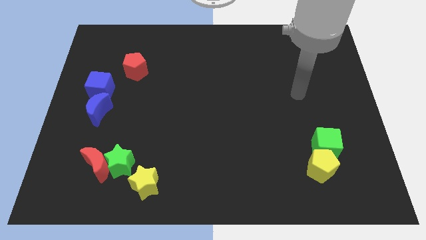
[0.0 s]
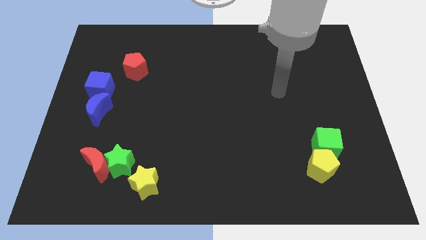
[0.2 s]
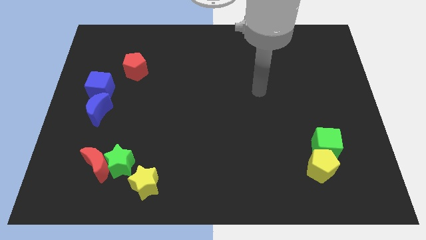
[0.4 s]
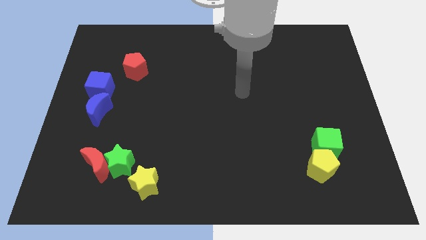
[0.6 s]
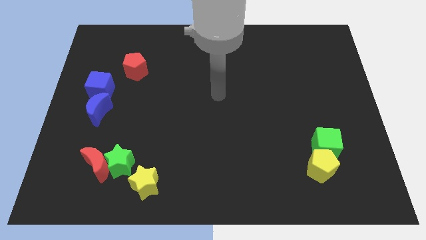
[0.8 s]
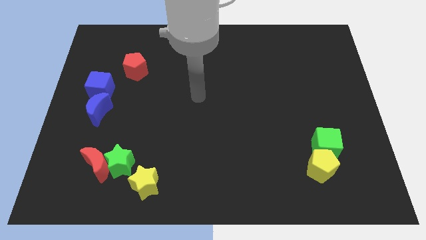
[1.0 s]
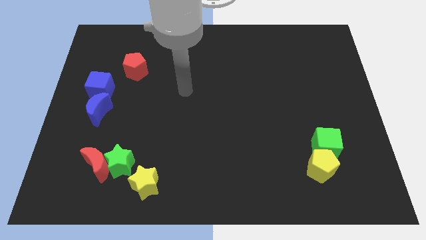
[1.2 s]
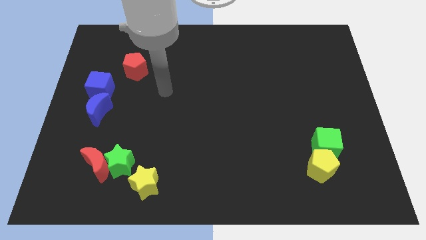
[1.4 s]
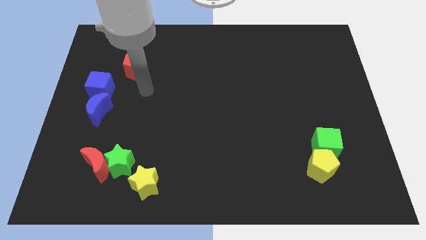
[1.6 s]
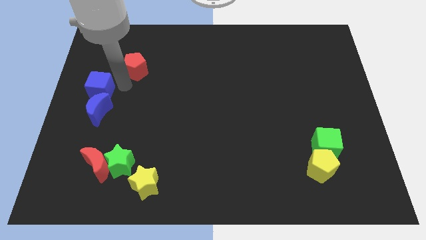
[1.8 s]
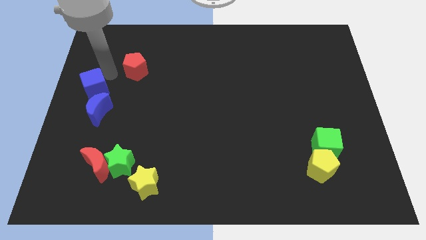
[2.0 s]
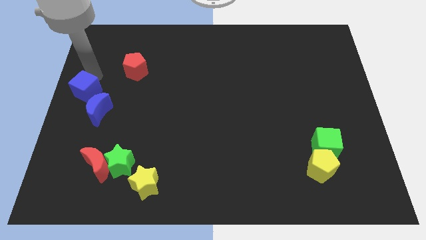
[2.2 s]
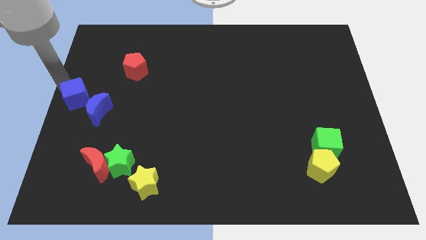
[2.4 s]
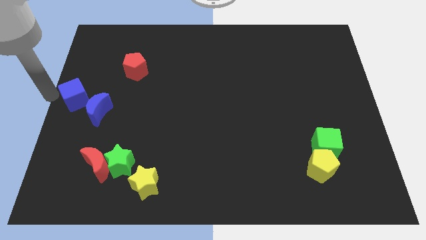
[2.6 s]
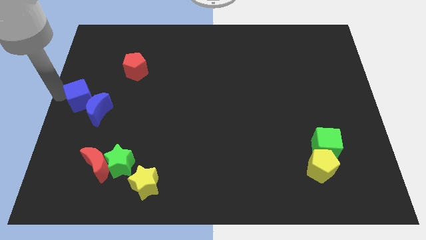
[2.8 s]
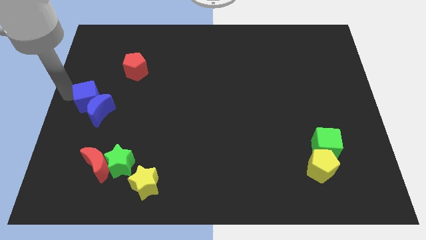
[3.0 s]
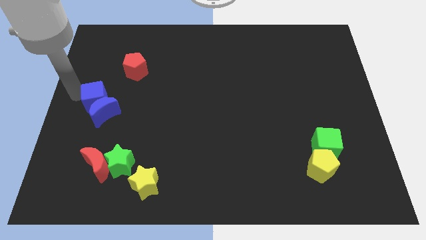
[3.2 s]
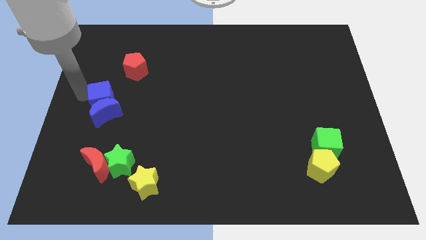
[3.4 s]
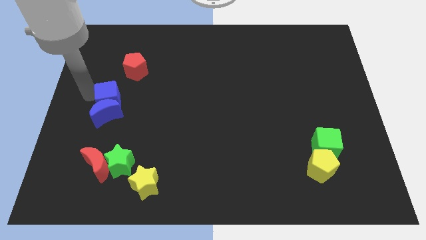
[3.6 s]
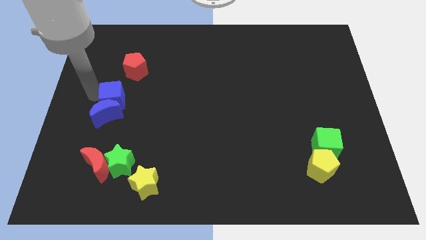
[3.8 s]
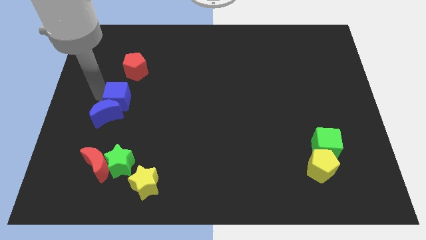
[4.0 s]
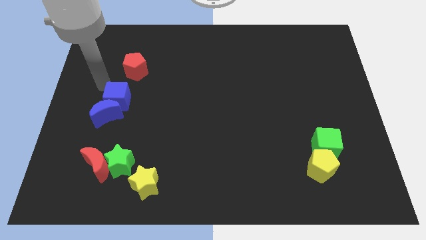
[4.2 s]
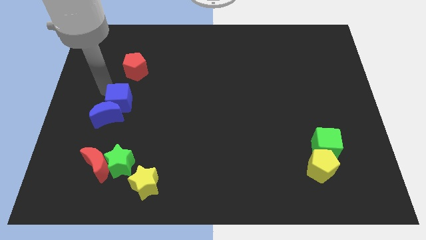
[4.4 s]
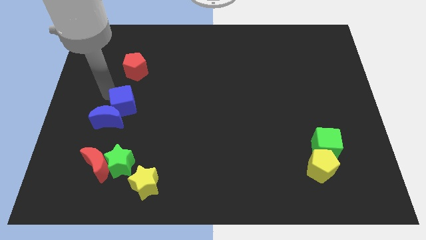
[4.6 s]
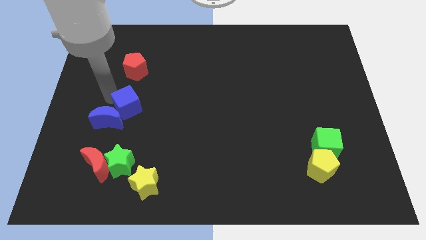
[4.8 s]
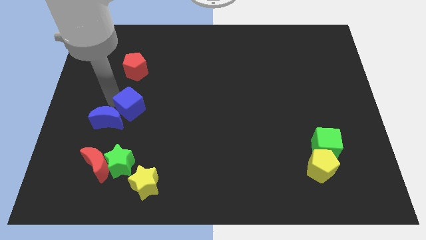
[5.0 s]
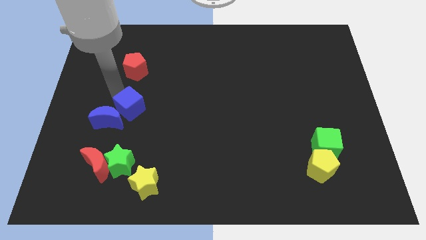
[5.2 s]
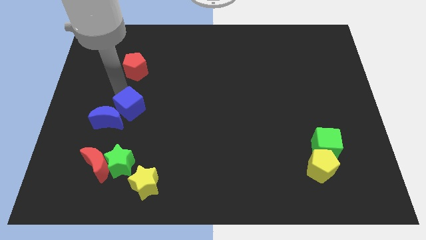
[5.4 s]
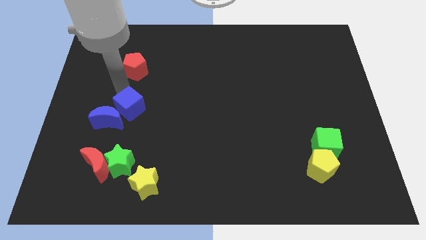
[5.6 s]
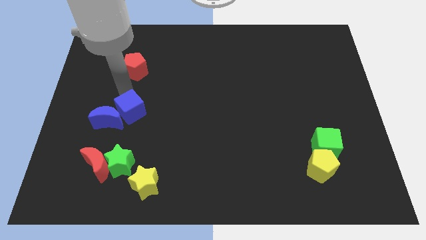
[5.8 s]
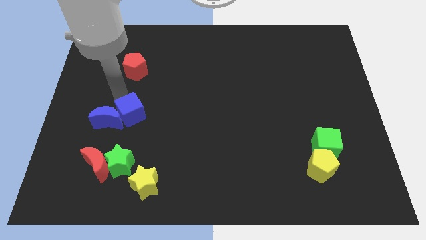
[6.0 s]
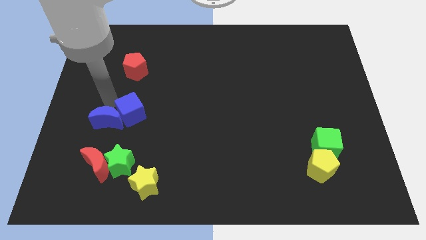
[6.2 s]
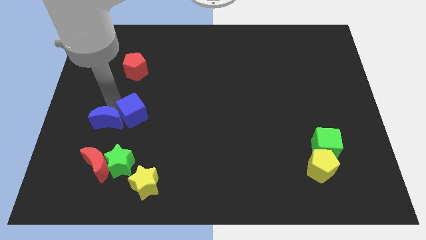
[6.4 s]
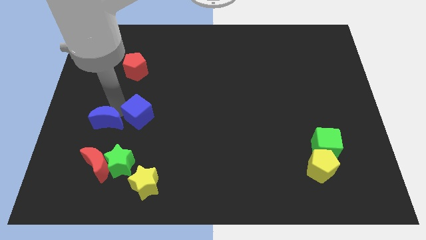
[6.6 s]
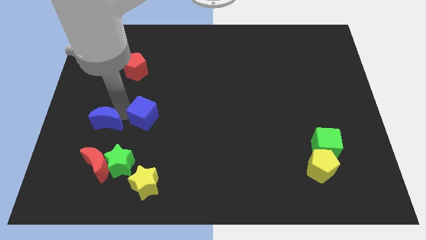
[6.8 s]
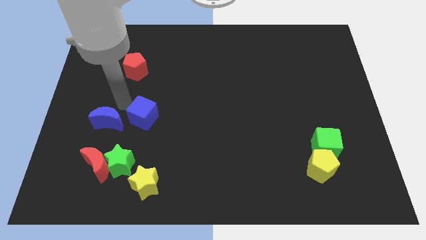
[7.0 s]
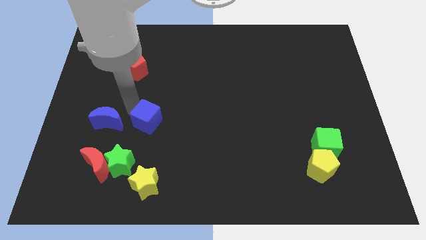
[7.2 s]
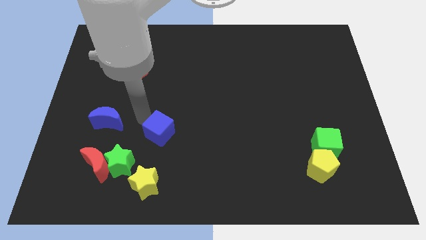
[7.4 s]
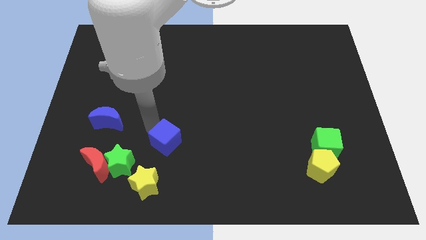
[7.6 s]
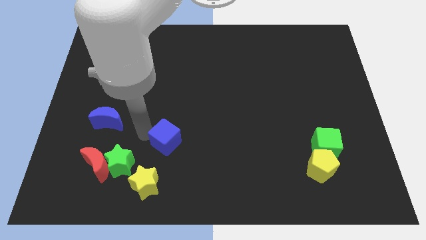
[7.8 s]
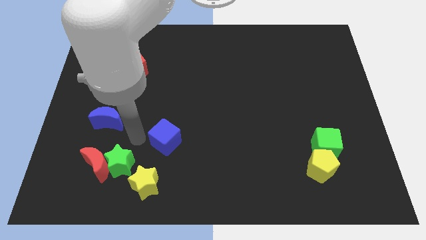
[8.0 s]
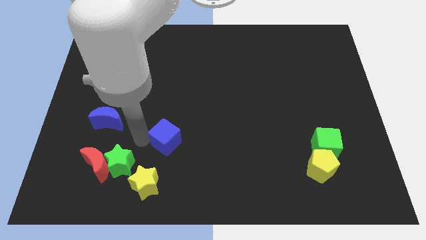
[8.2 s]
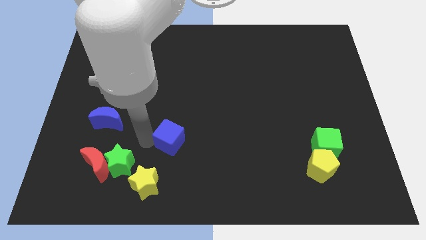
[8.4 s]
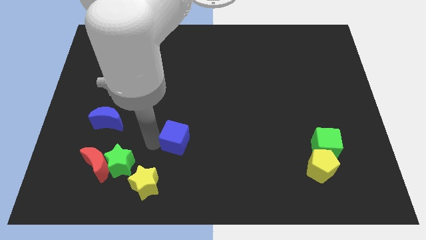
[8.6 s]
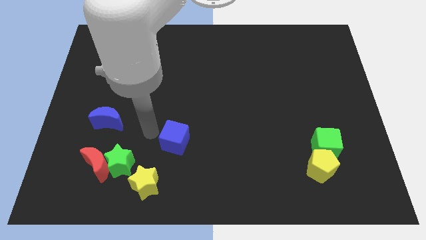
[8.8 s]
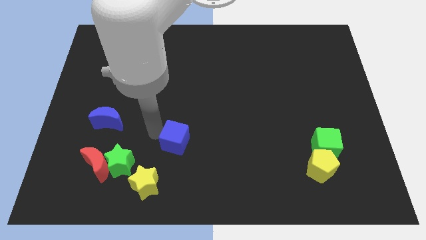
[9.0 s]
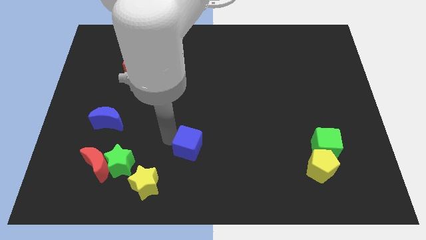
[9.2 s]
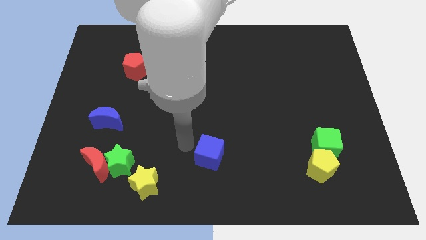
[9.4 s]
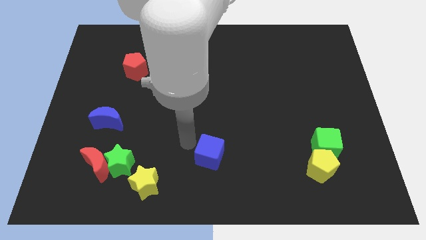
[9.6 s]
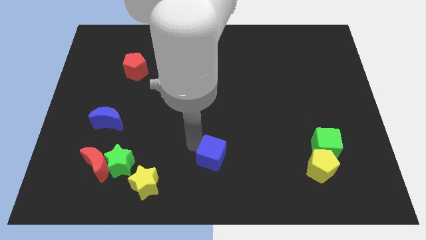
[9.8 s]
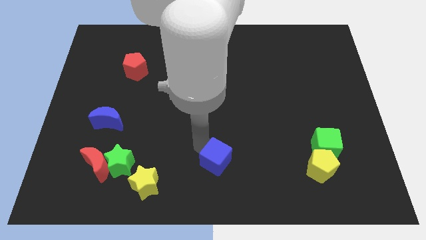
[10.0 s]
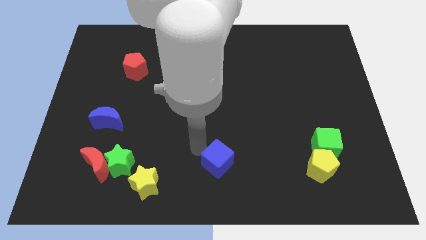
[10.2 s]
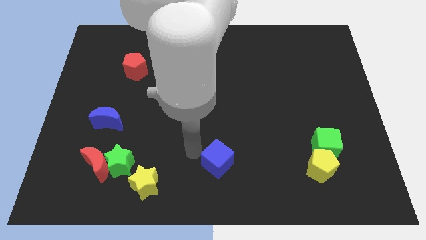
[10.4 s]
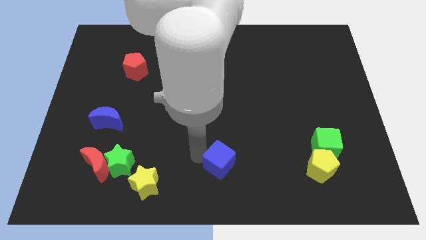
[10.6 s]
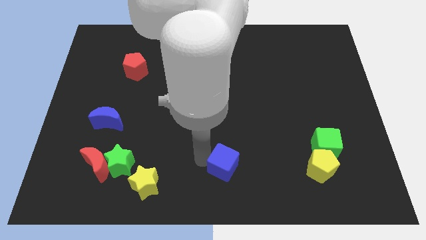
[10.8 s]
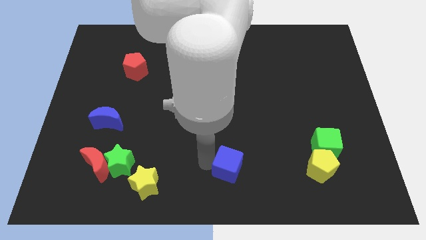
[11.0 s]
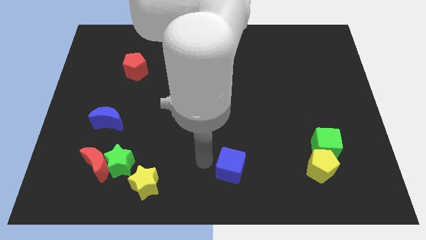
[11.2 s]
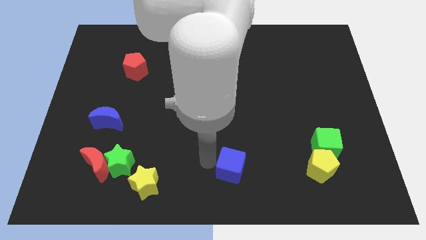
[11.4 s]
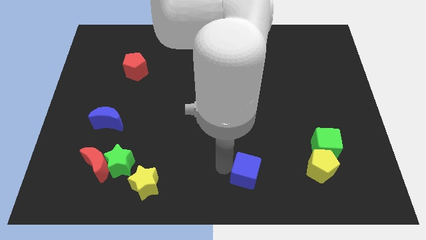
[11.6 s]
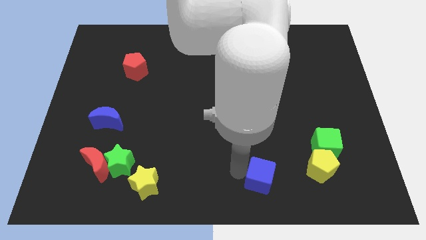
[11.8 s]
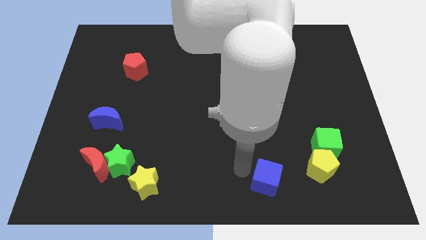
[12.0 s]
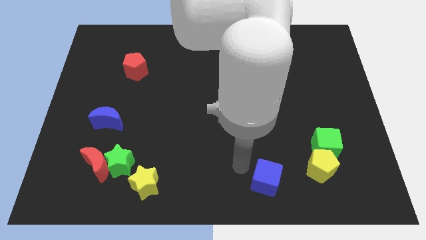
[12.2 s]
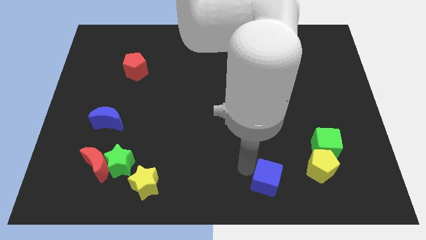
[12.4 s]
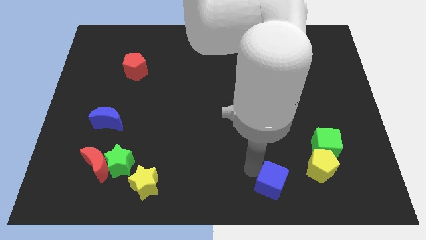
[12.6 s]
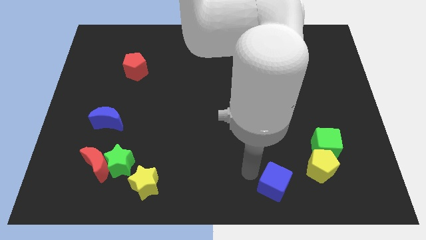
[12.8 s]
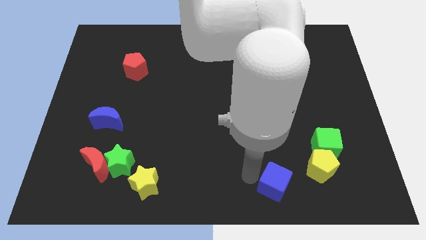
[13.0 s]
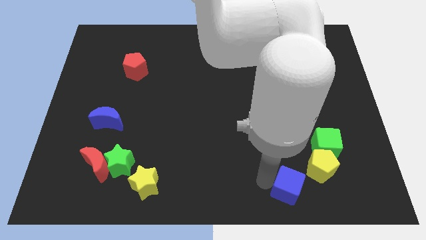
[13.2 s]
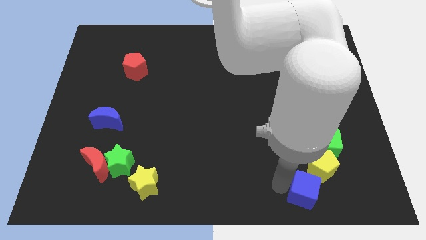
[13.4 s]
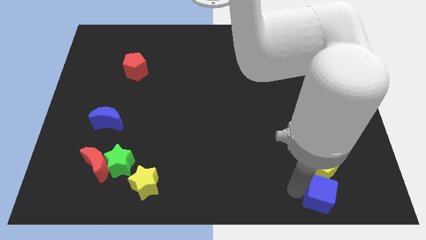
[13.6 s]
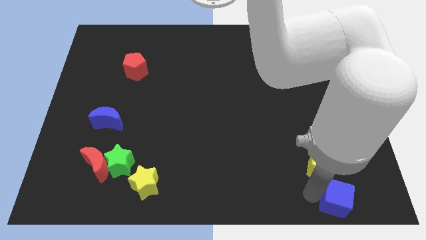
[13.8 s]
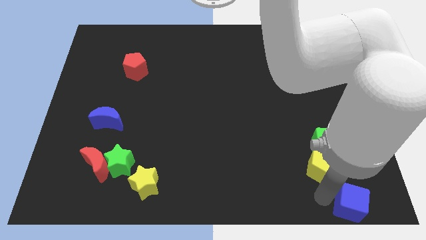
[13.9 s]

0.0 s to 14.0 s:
push the blue cube to the bottom right

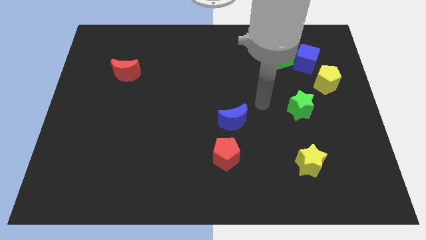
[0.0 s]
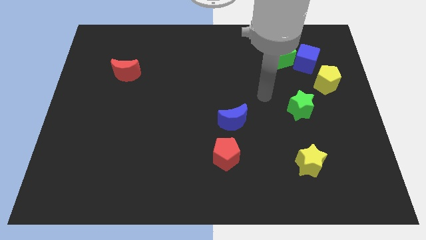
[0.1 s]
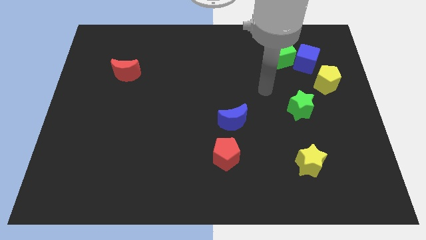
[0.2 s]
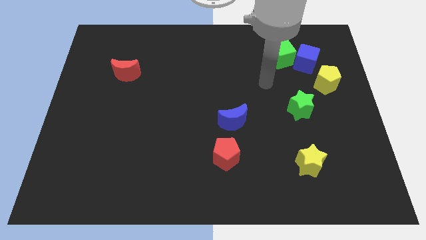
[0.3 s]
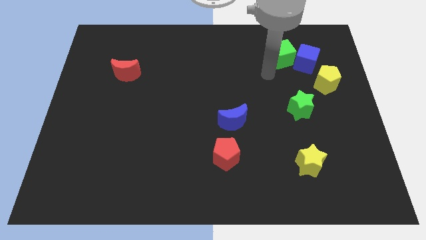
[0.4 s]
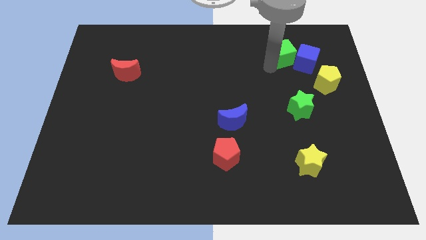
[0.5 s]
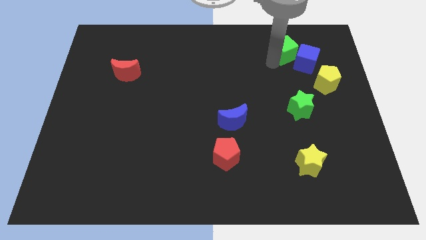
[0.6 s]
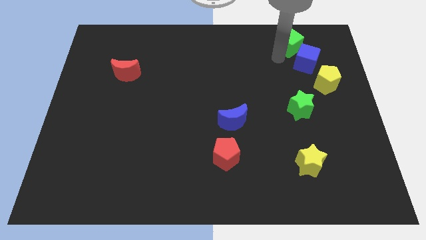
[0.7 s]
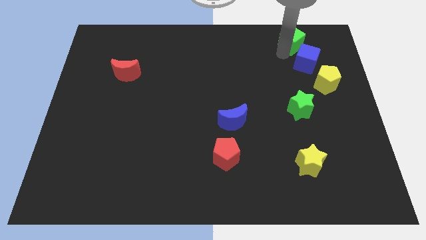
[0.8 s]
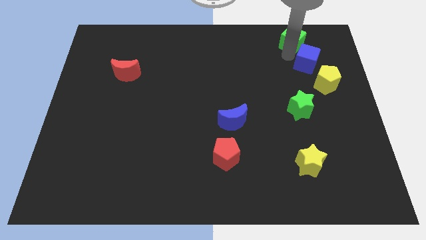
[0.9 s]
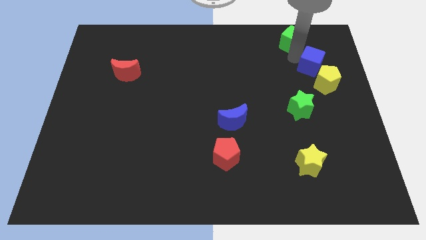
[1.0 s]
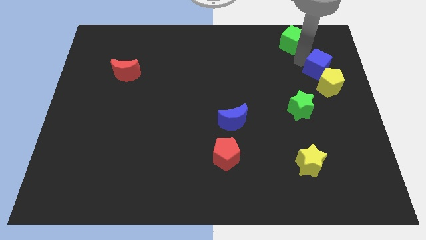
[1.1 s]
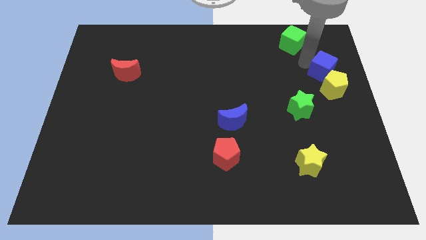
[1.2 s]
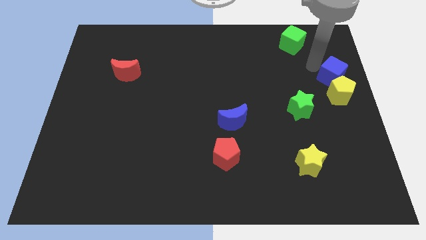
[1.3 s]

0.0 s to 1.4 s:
put the blue cube to the center right
